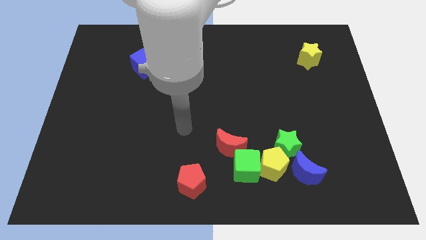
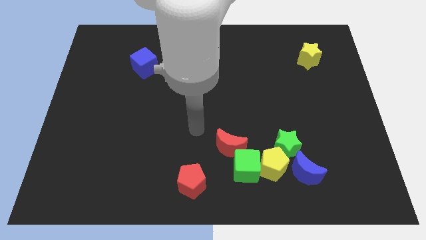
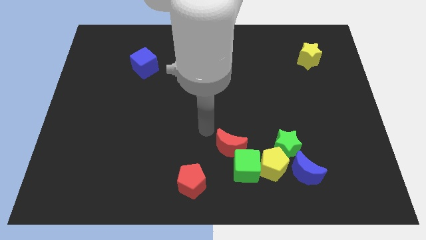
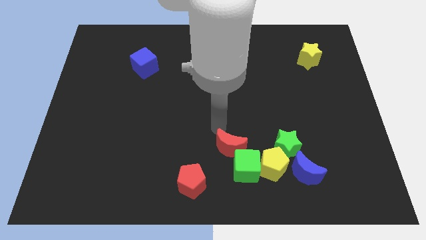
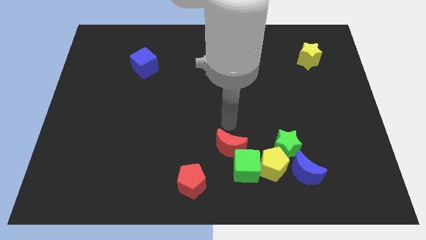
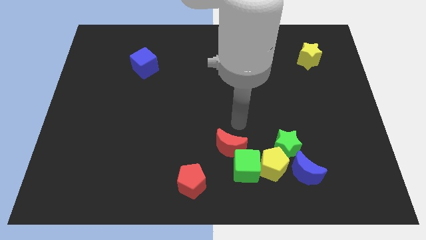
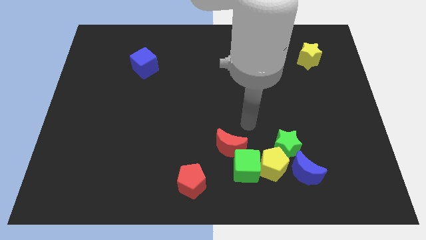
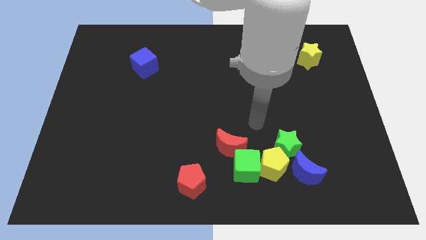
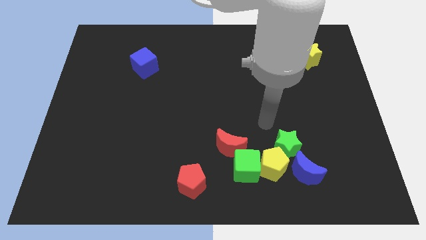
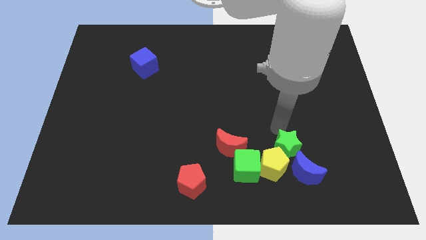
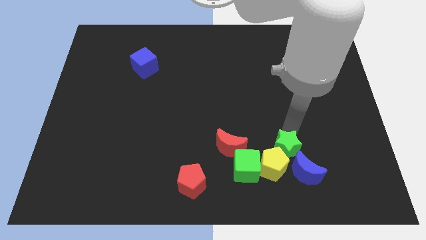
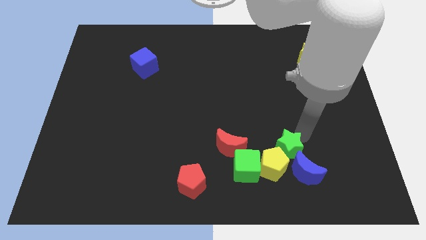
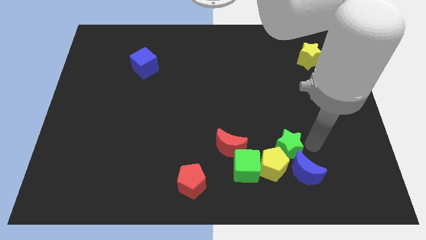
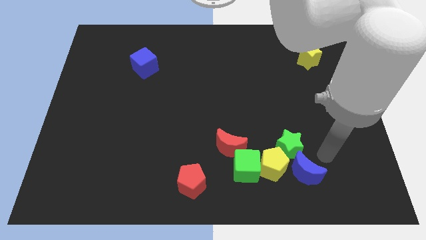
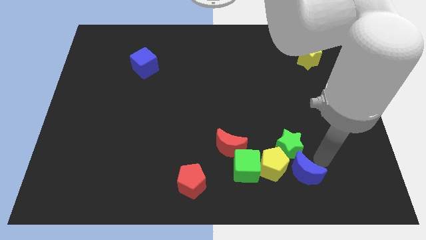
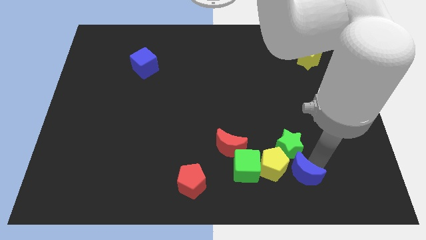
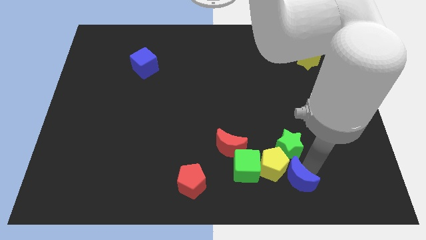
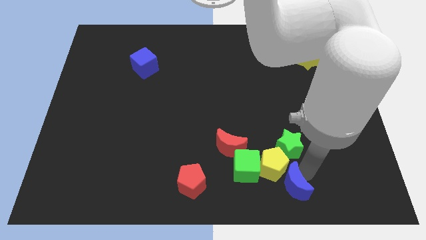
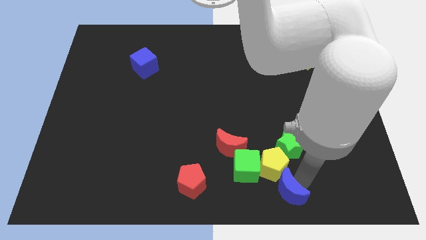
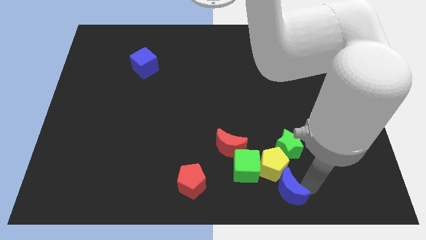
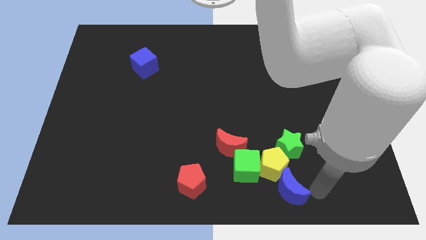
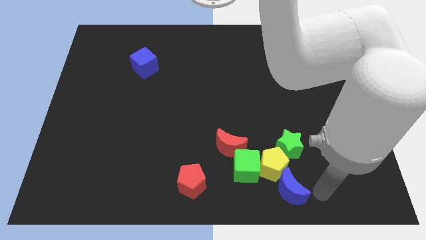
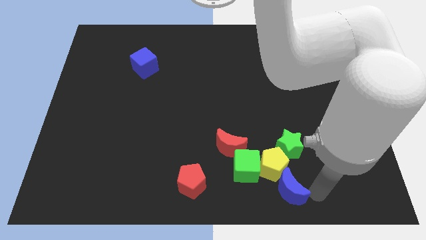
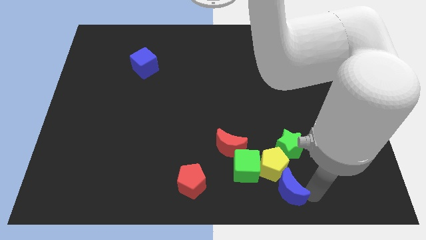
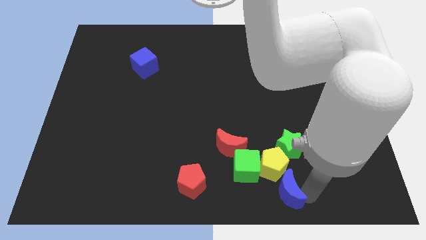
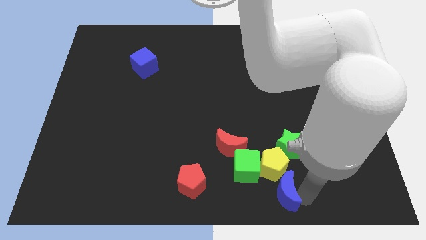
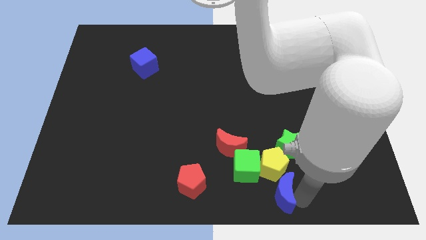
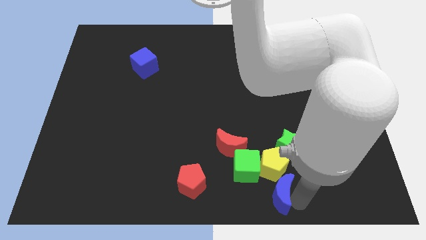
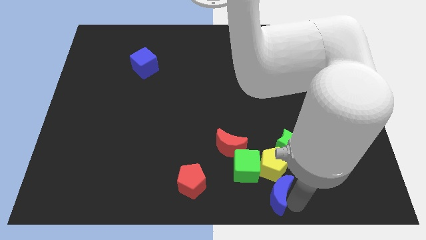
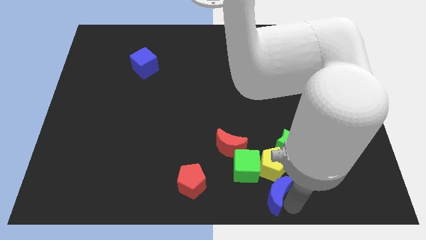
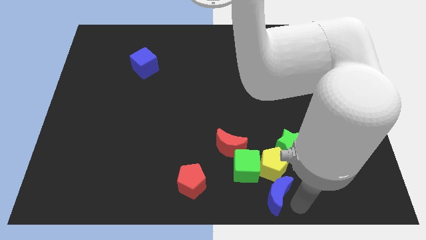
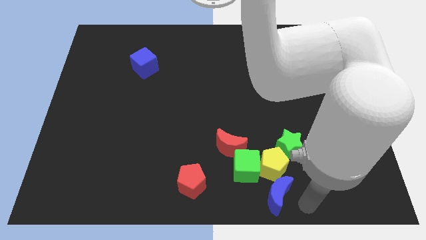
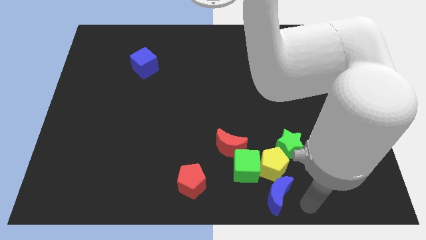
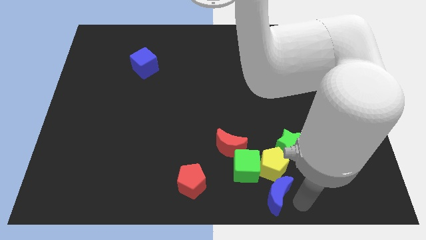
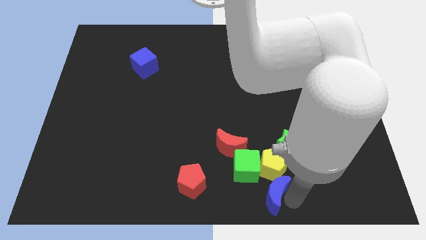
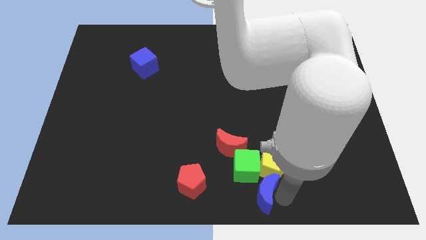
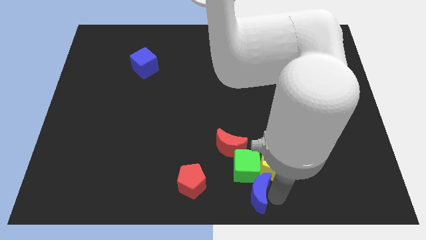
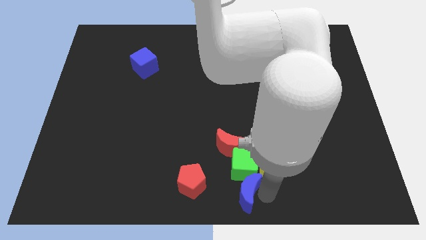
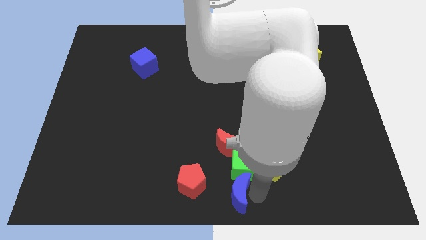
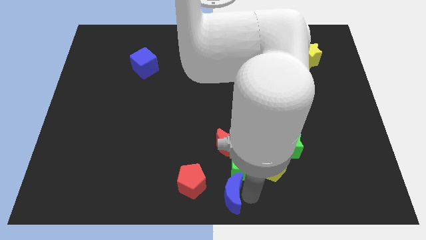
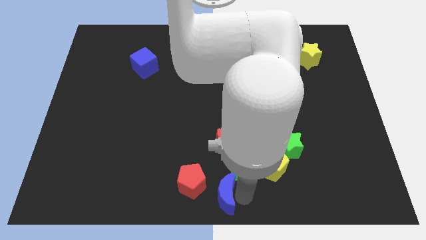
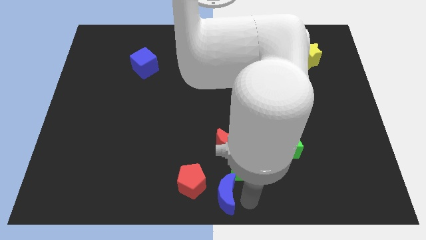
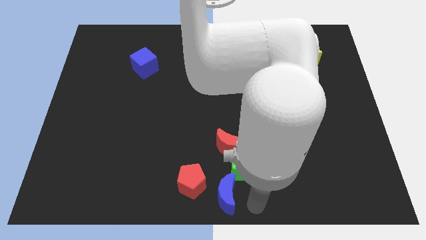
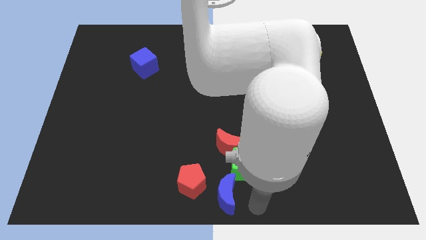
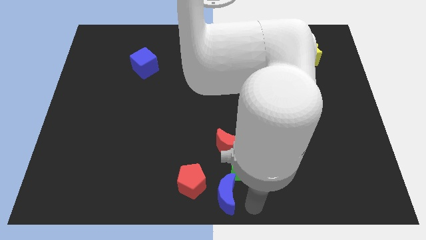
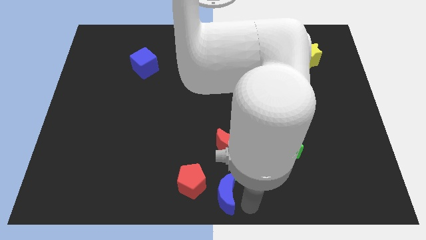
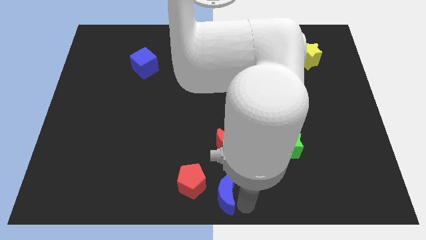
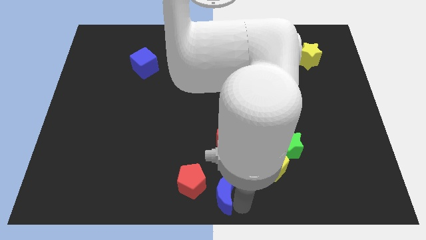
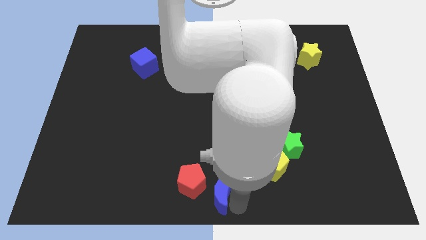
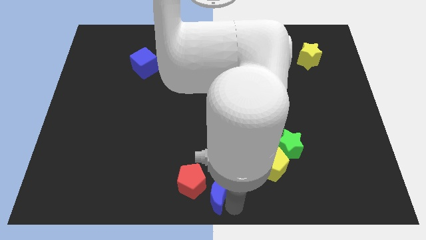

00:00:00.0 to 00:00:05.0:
move the blue moon towards the red pentagon

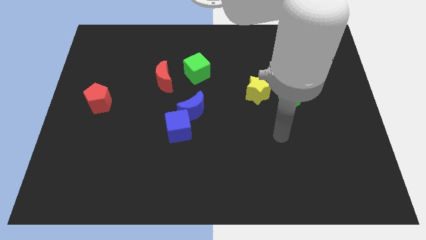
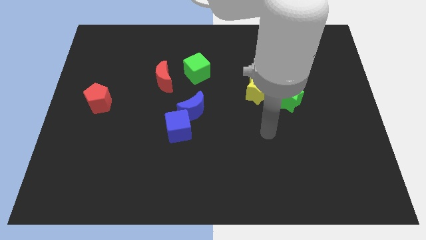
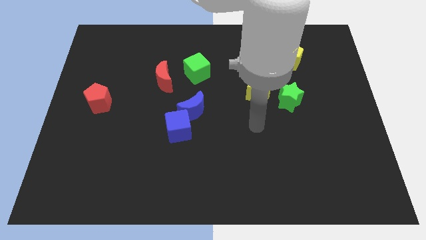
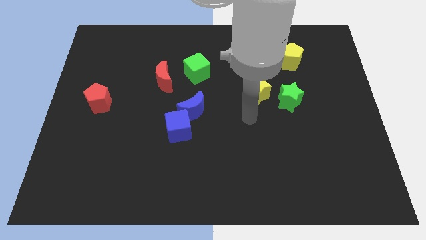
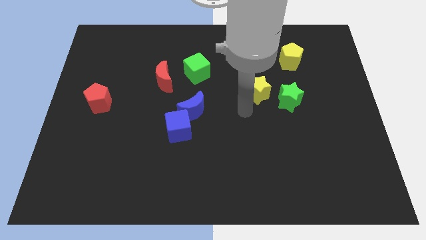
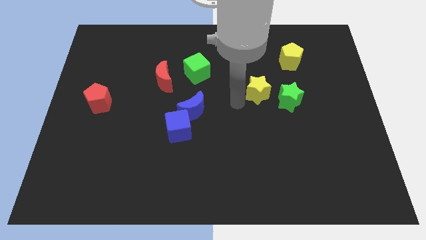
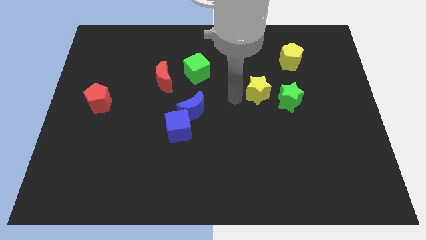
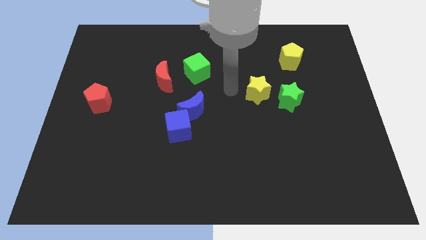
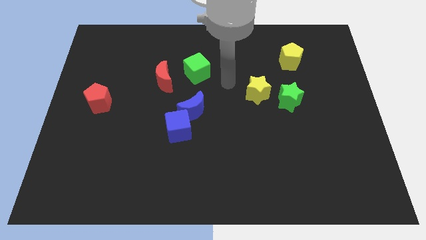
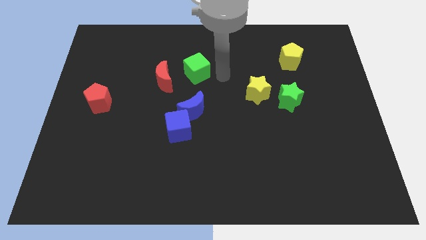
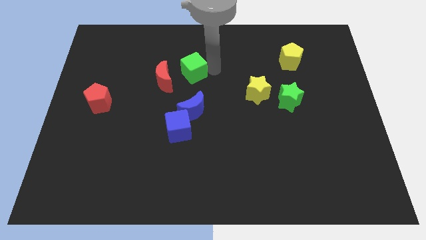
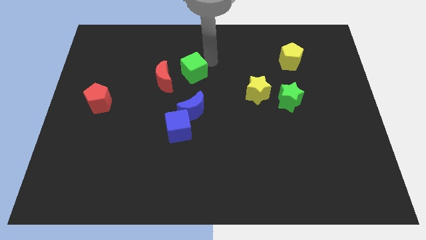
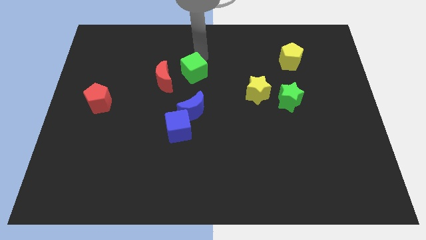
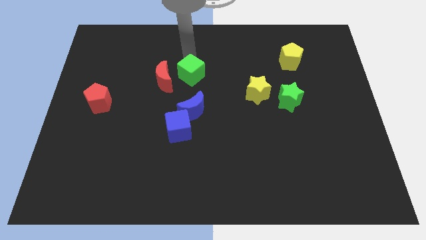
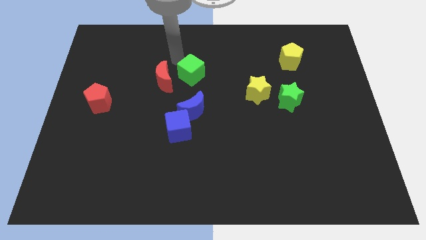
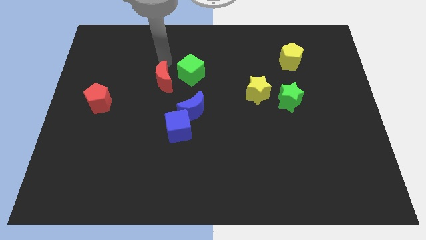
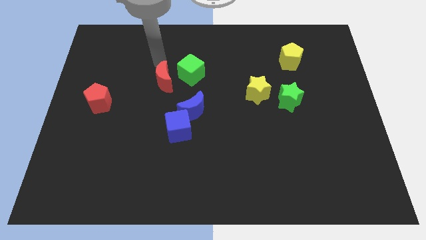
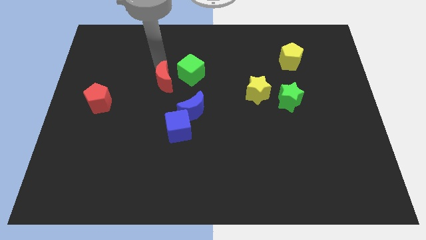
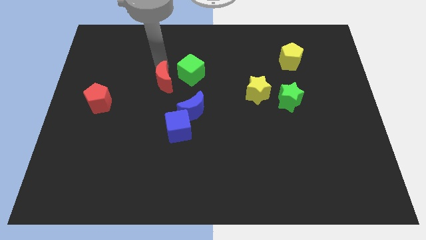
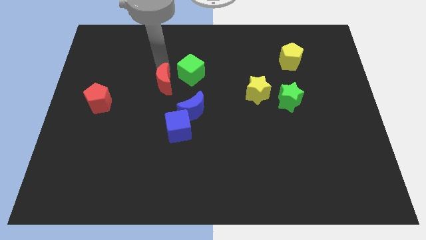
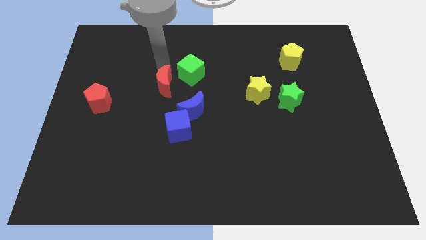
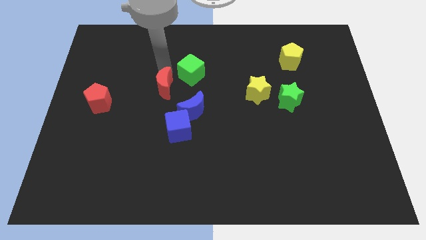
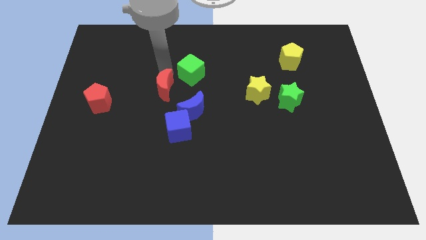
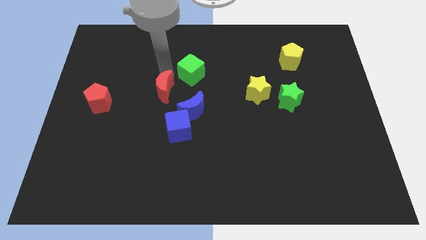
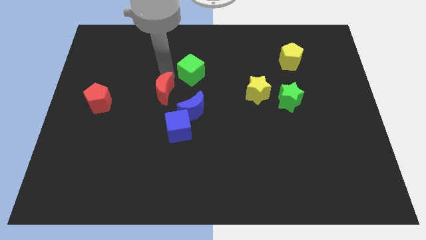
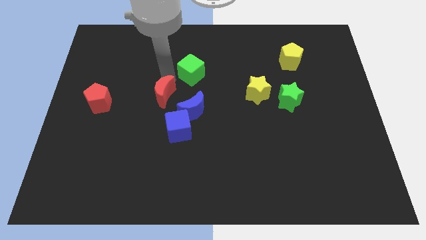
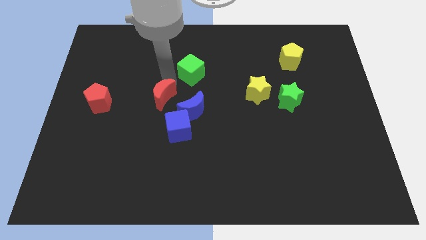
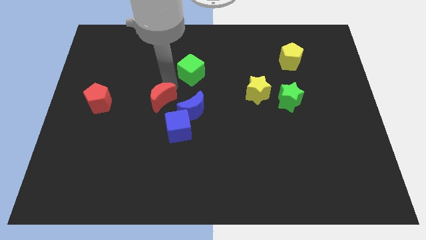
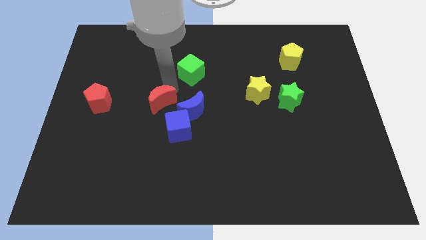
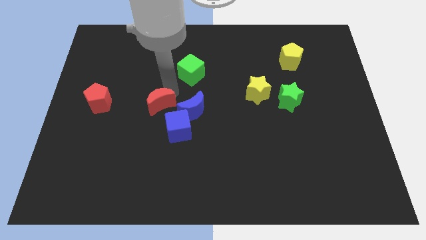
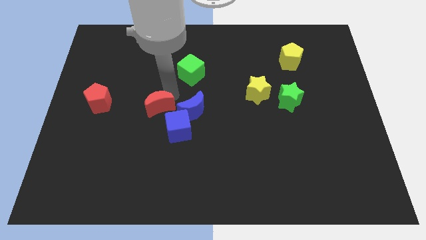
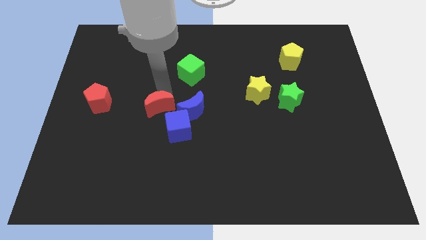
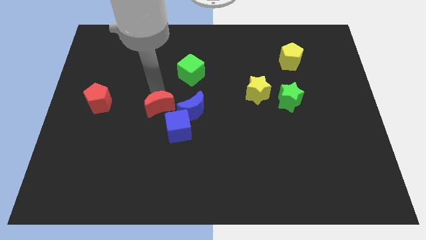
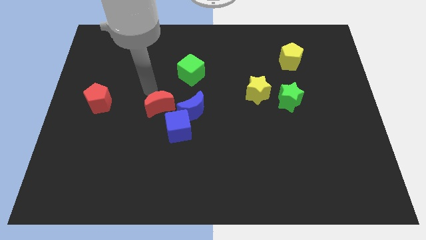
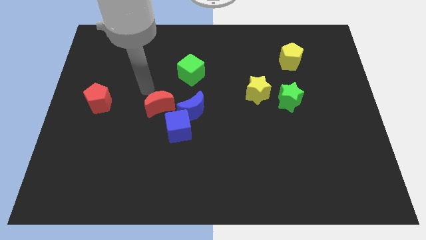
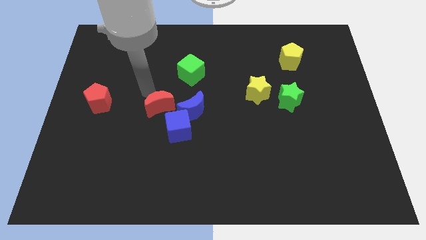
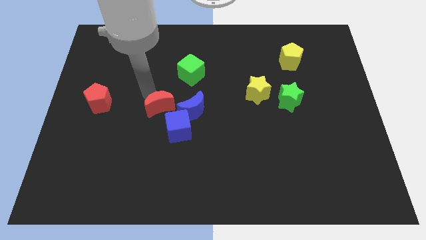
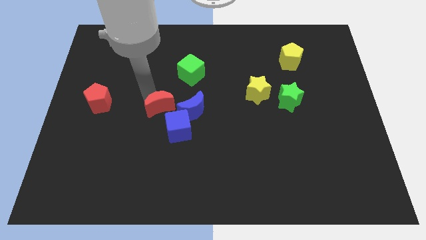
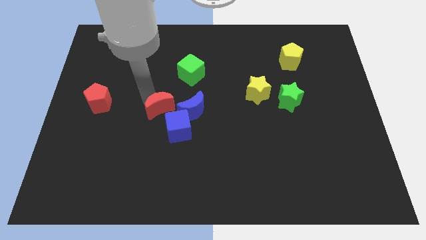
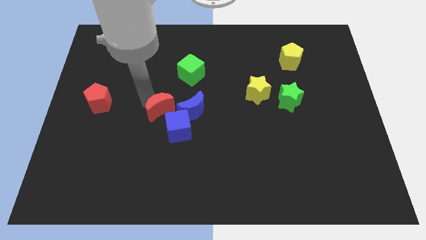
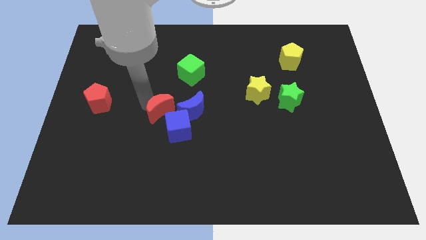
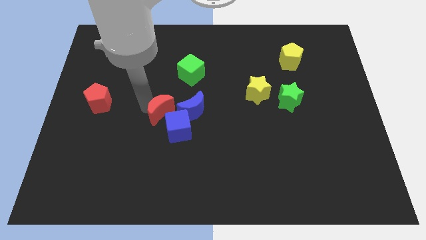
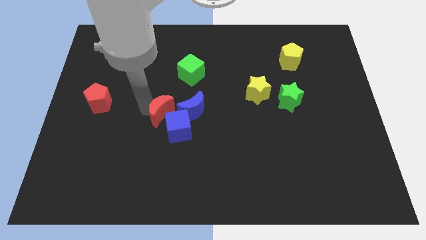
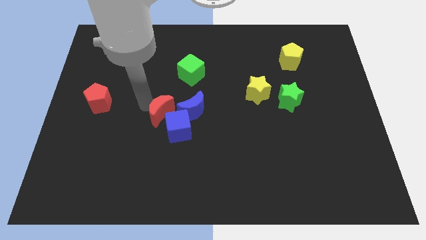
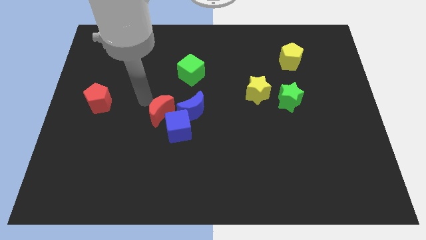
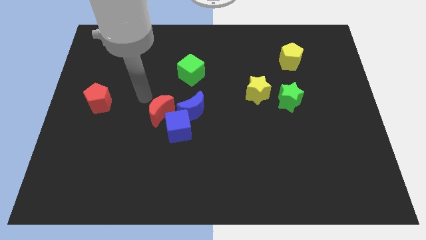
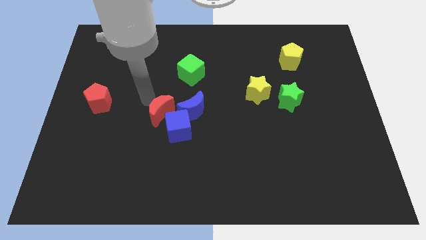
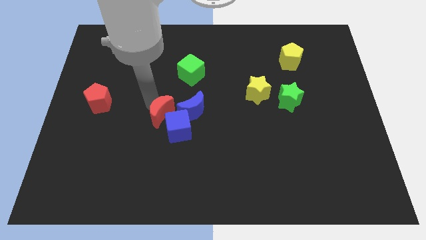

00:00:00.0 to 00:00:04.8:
push the red moon towards the blue cube
